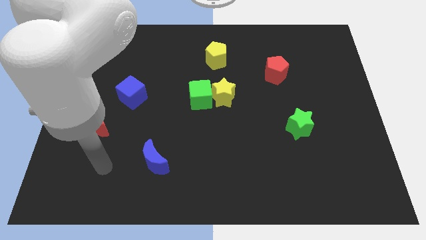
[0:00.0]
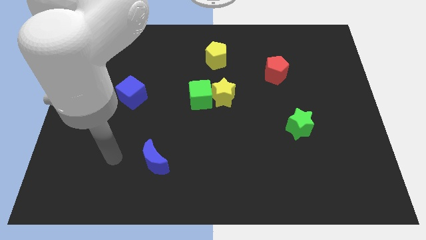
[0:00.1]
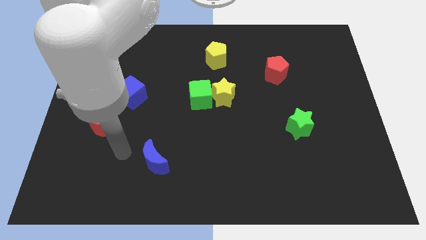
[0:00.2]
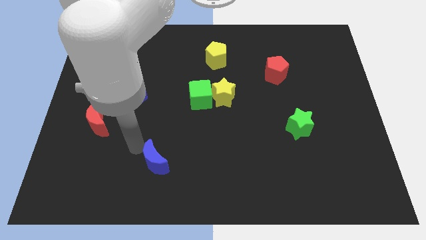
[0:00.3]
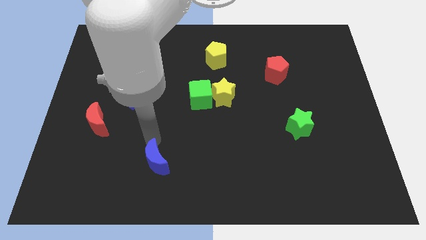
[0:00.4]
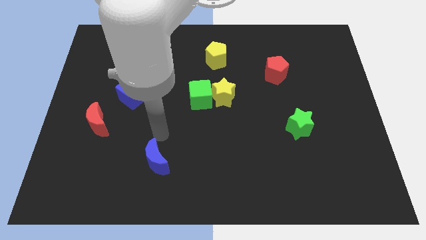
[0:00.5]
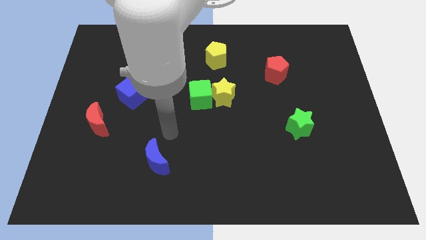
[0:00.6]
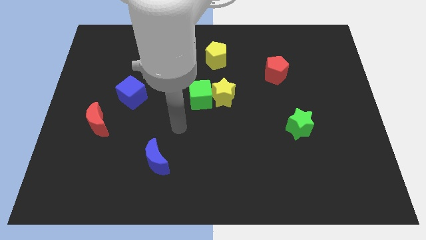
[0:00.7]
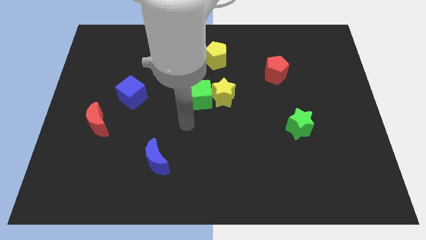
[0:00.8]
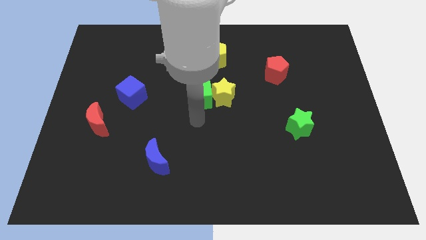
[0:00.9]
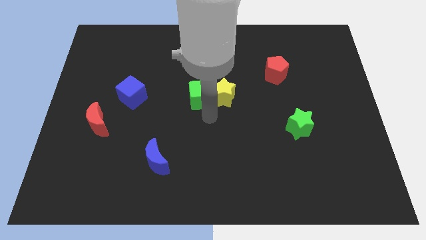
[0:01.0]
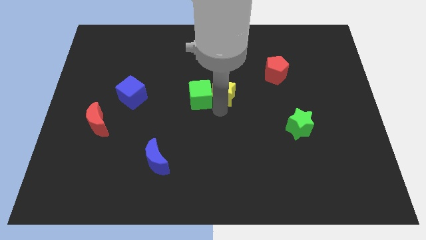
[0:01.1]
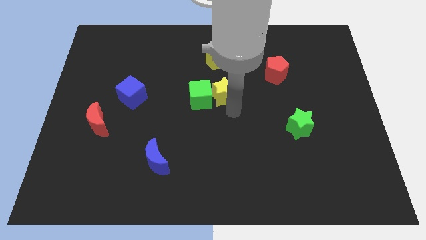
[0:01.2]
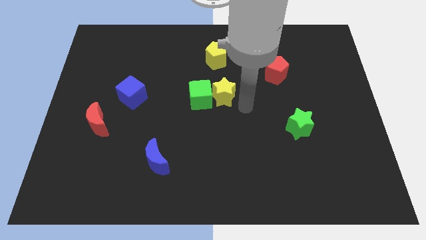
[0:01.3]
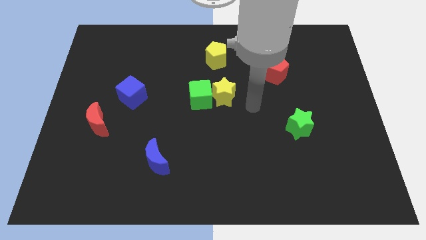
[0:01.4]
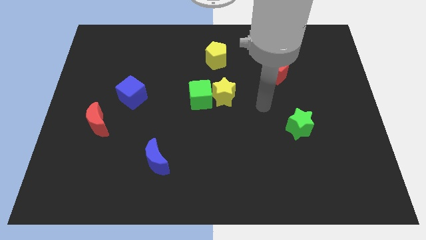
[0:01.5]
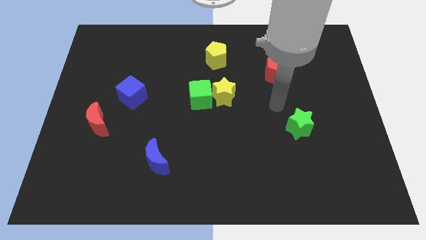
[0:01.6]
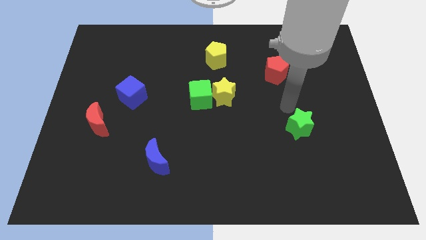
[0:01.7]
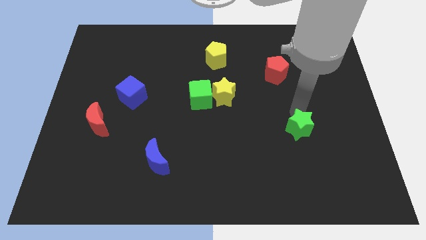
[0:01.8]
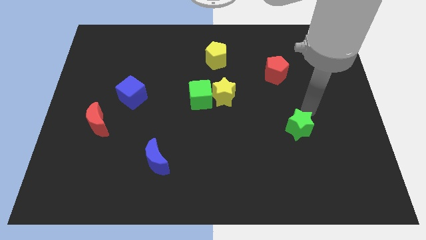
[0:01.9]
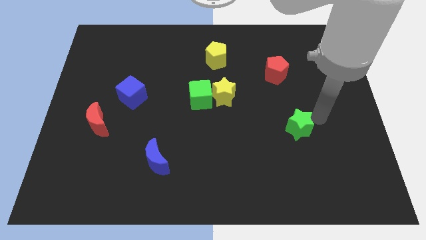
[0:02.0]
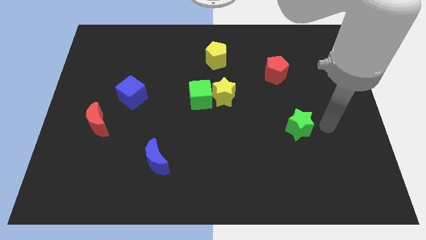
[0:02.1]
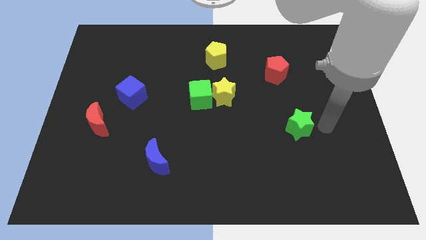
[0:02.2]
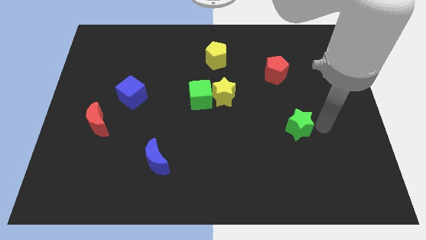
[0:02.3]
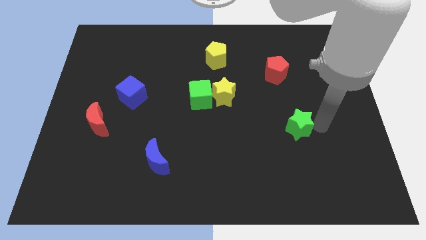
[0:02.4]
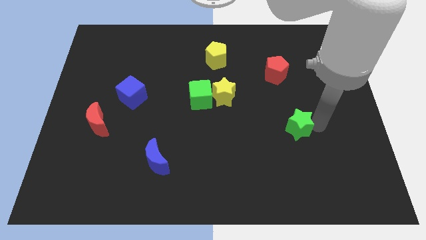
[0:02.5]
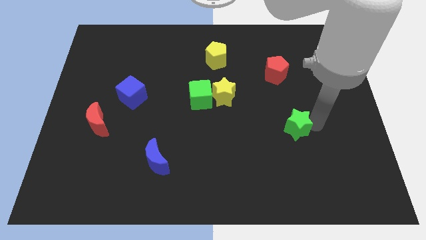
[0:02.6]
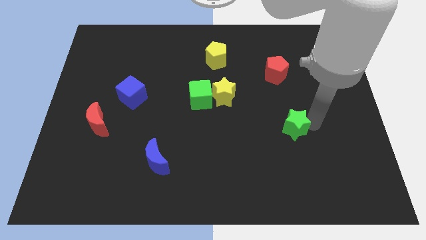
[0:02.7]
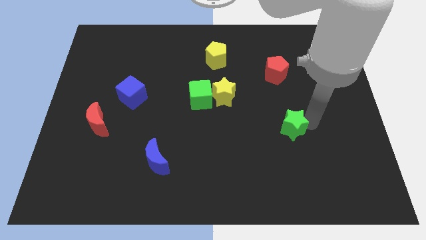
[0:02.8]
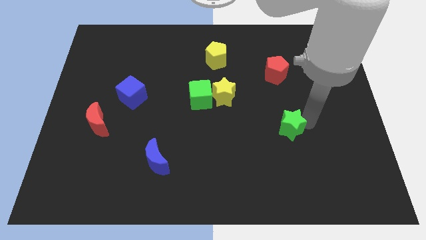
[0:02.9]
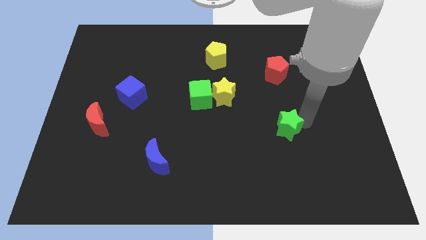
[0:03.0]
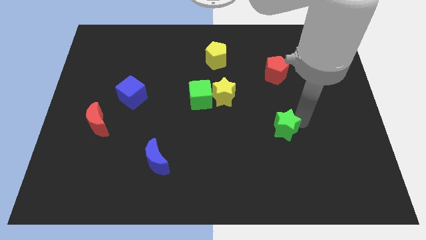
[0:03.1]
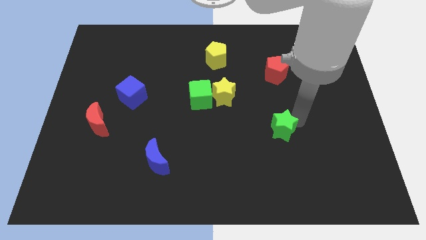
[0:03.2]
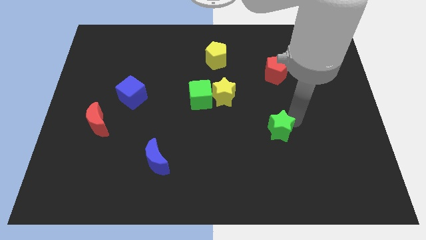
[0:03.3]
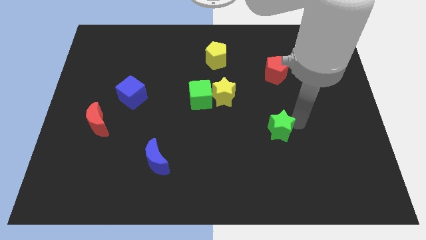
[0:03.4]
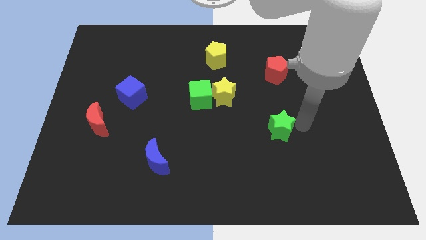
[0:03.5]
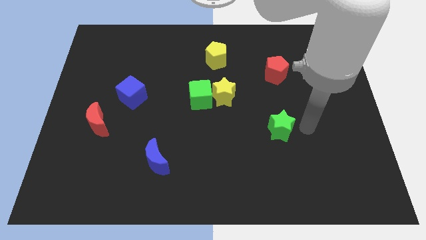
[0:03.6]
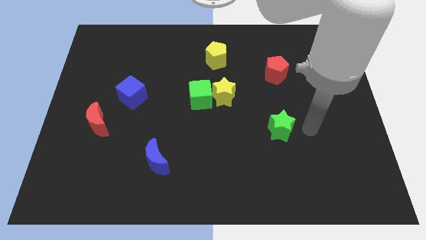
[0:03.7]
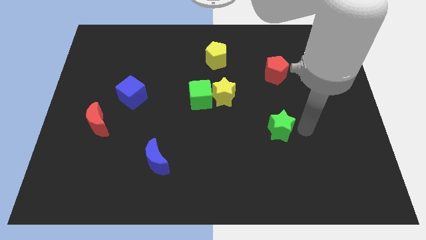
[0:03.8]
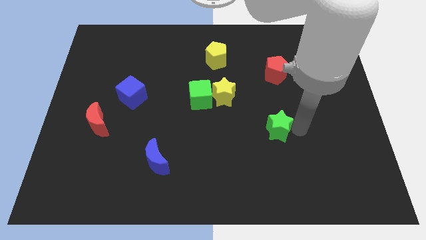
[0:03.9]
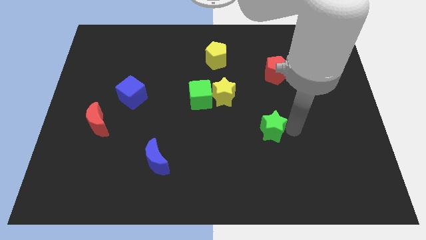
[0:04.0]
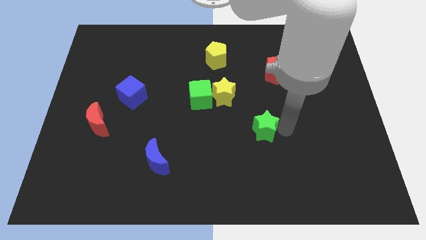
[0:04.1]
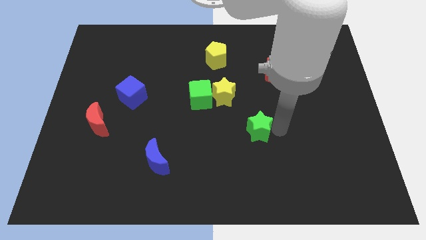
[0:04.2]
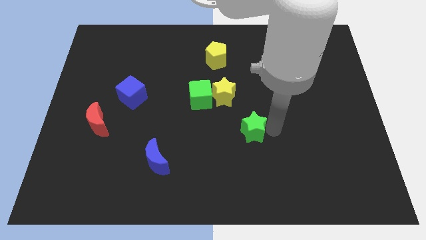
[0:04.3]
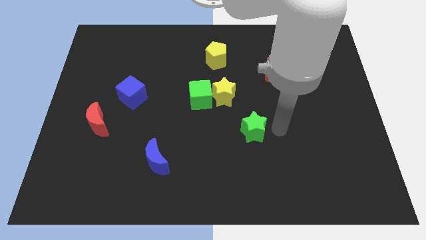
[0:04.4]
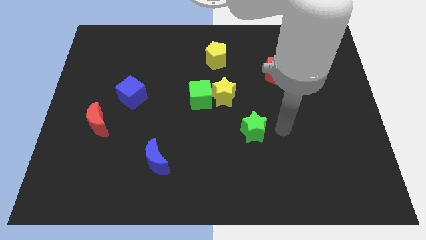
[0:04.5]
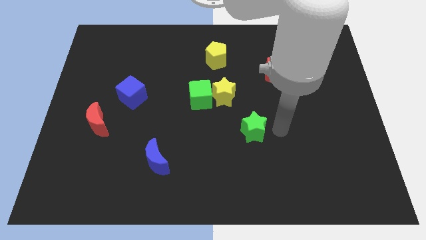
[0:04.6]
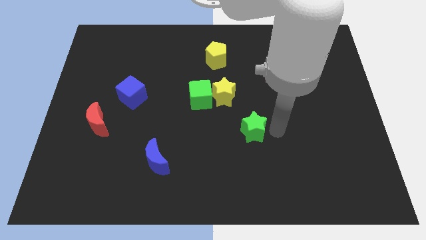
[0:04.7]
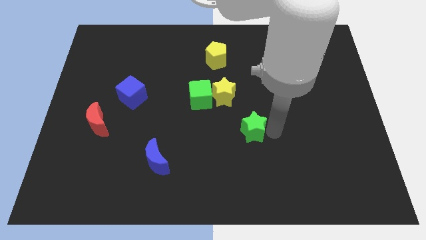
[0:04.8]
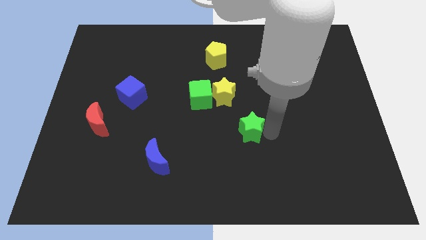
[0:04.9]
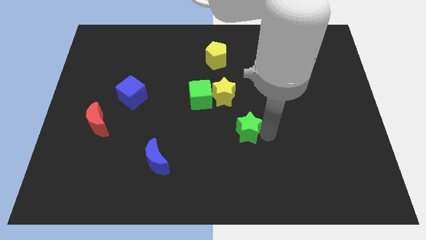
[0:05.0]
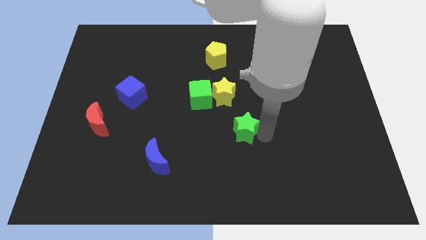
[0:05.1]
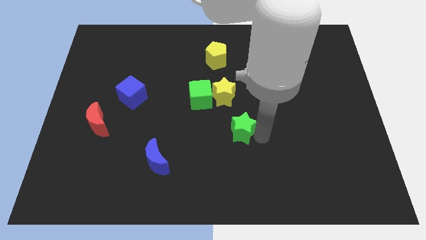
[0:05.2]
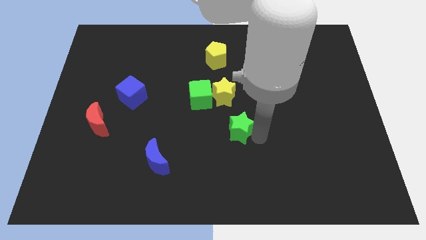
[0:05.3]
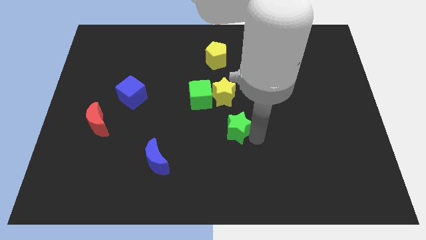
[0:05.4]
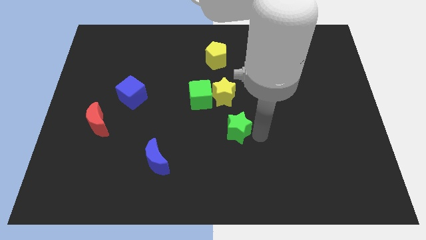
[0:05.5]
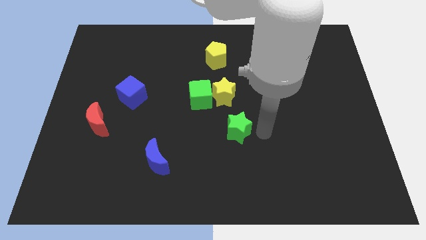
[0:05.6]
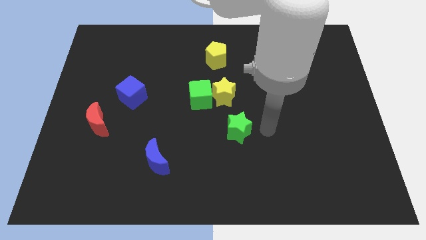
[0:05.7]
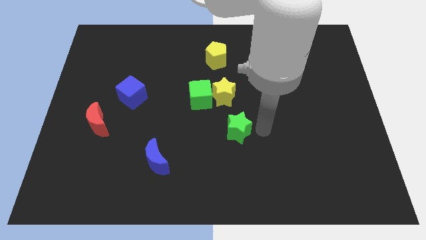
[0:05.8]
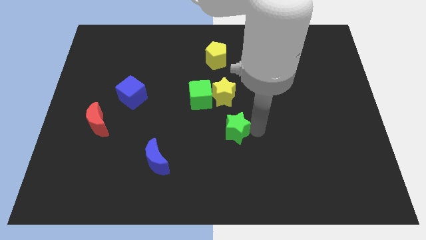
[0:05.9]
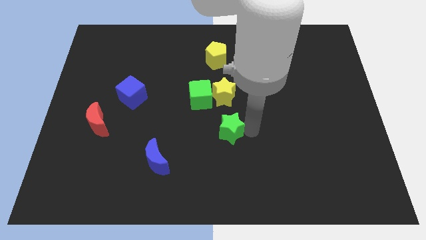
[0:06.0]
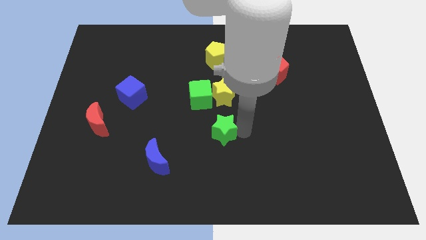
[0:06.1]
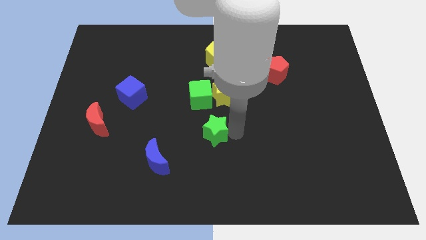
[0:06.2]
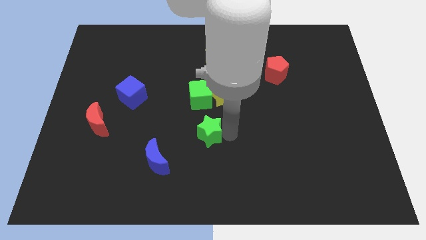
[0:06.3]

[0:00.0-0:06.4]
move the green star to the left

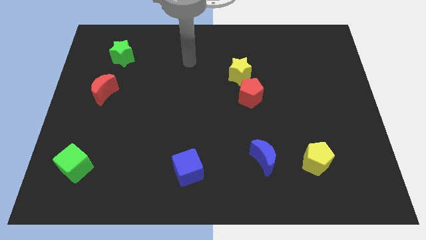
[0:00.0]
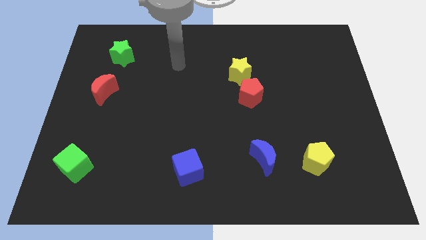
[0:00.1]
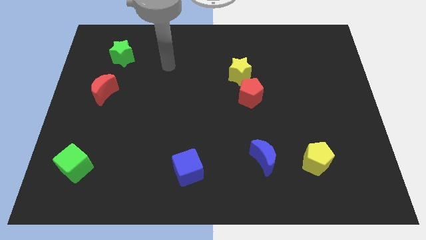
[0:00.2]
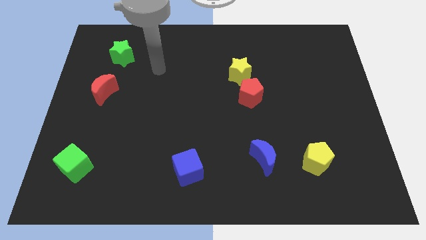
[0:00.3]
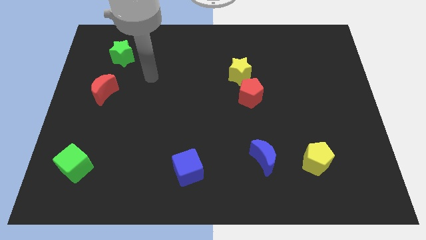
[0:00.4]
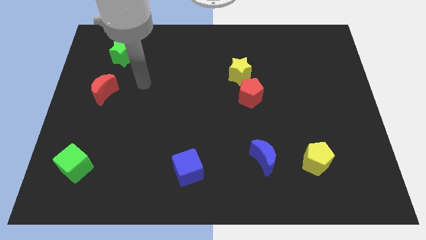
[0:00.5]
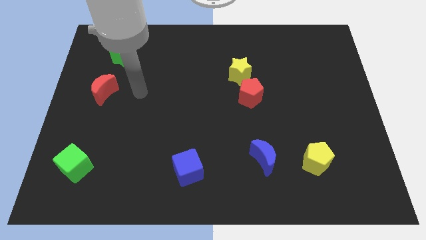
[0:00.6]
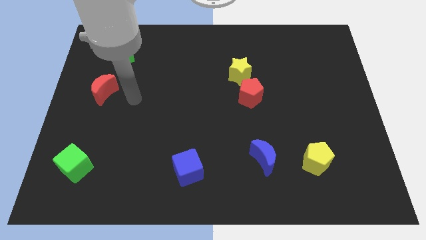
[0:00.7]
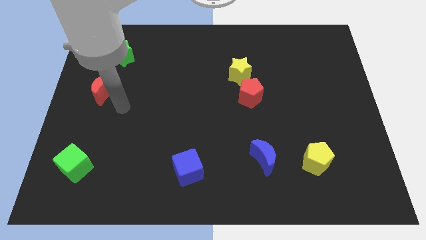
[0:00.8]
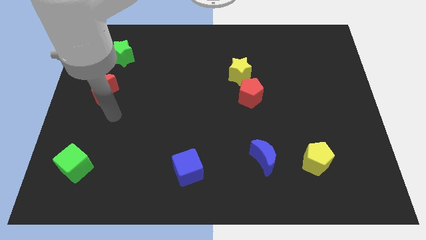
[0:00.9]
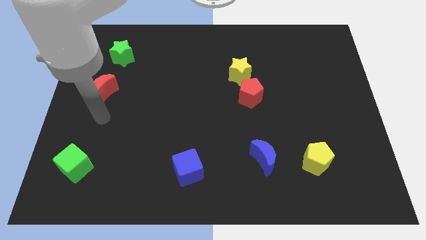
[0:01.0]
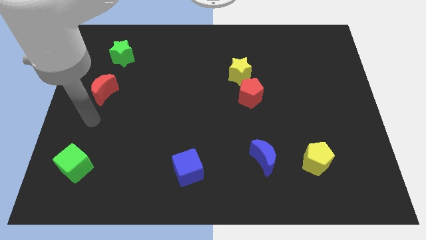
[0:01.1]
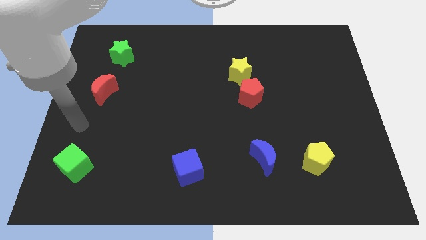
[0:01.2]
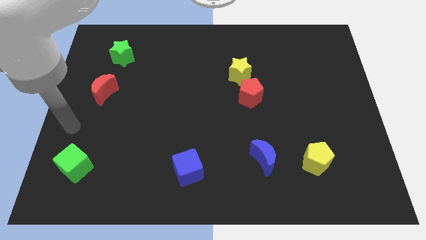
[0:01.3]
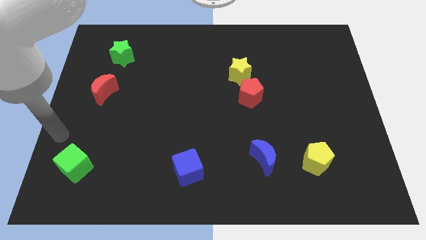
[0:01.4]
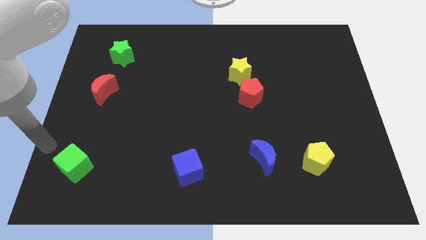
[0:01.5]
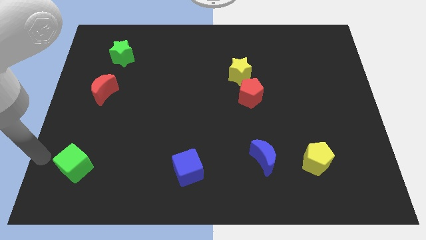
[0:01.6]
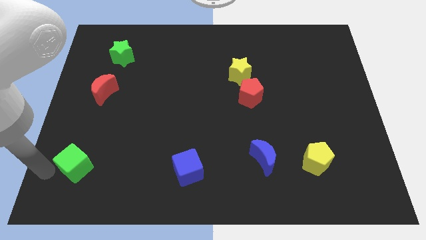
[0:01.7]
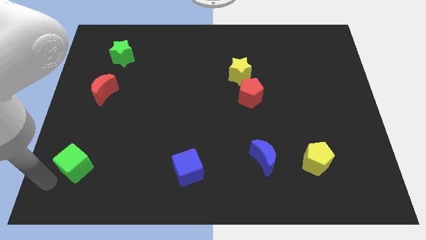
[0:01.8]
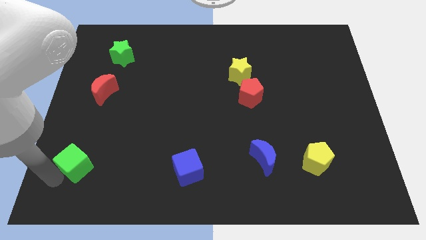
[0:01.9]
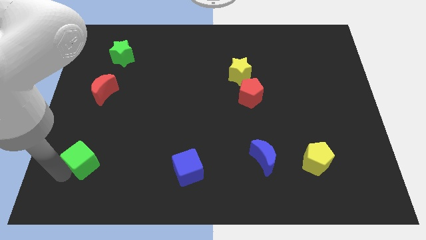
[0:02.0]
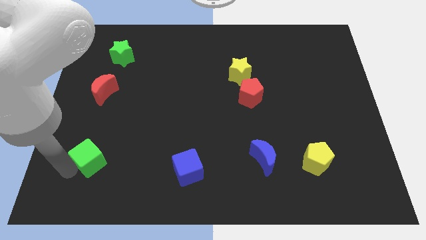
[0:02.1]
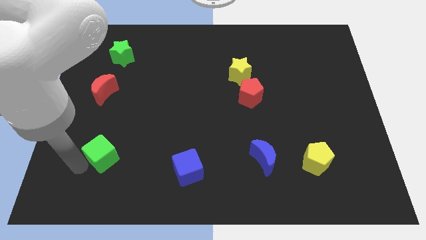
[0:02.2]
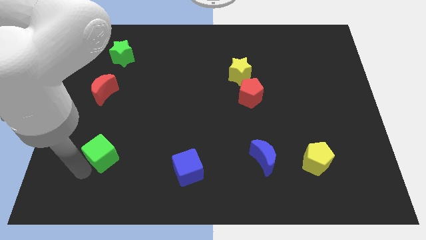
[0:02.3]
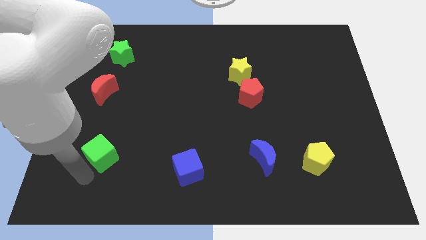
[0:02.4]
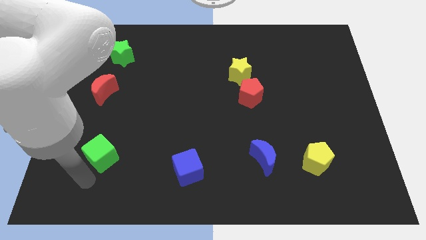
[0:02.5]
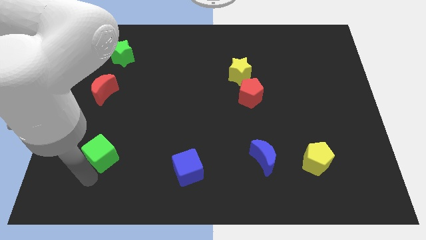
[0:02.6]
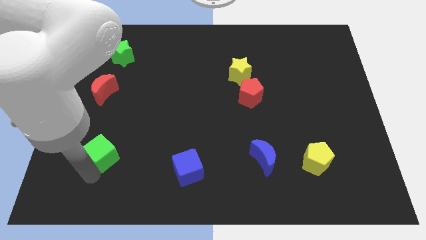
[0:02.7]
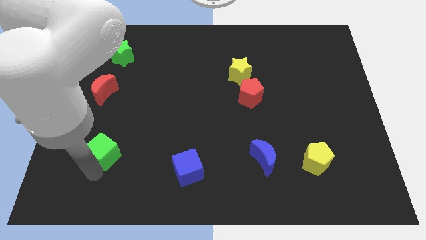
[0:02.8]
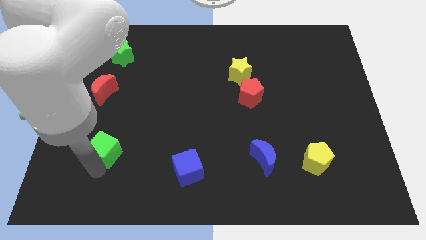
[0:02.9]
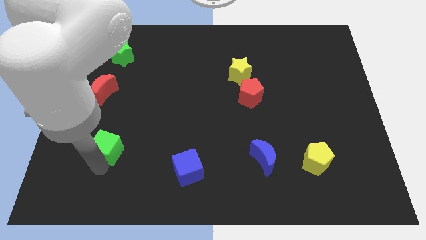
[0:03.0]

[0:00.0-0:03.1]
slightly move the green cube diagonally upwards and to the right
